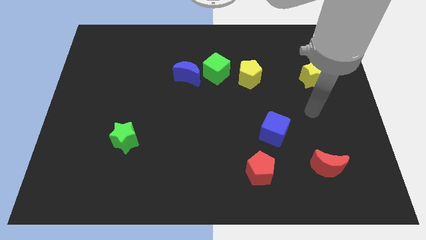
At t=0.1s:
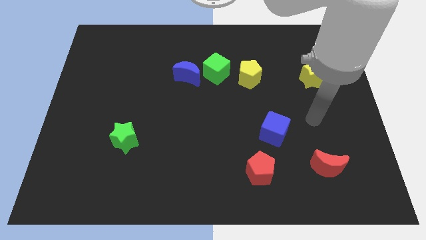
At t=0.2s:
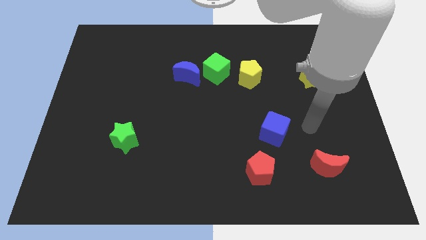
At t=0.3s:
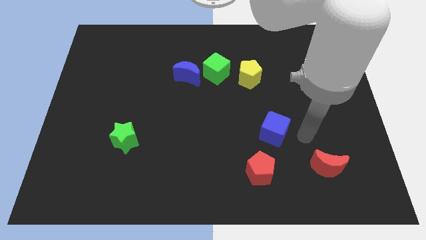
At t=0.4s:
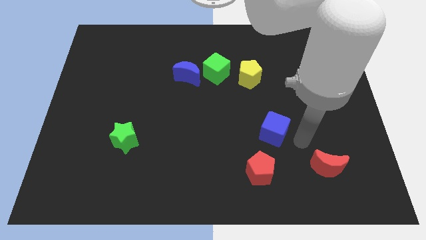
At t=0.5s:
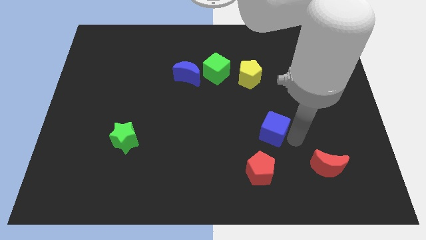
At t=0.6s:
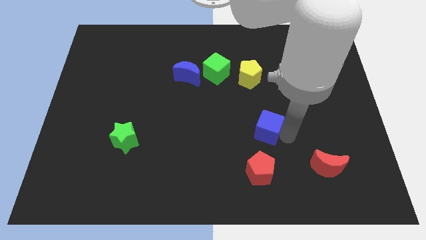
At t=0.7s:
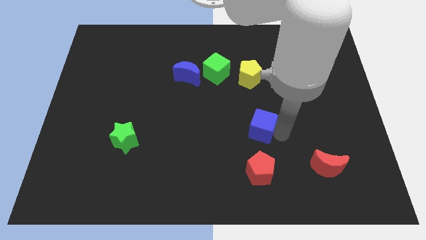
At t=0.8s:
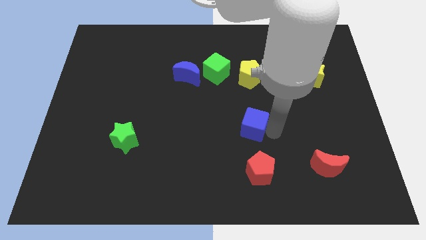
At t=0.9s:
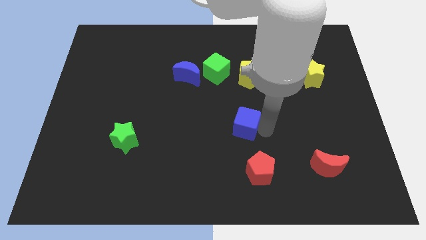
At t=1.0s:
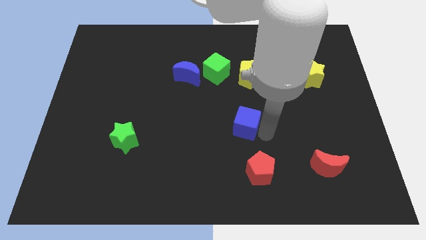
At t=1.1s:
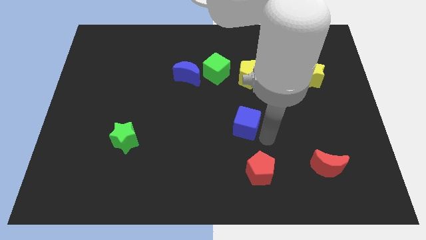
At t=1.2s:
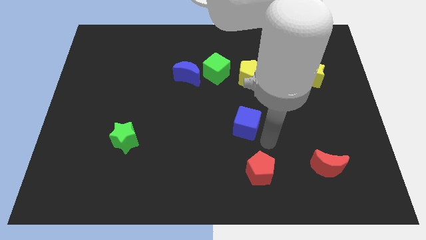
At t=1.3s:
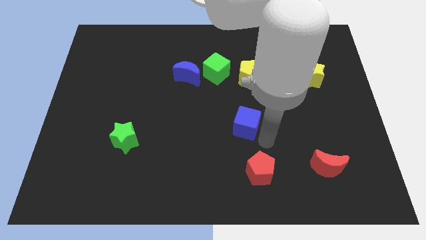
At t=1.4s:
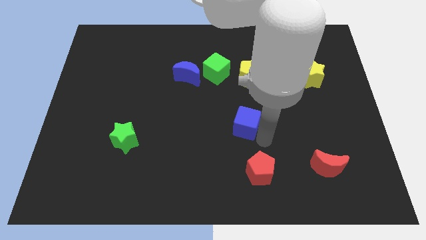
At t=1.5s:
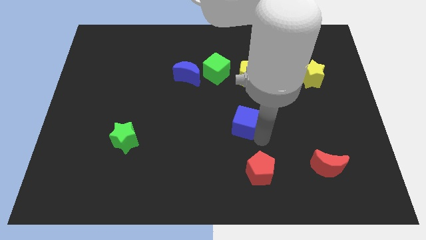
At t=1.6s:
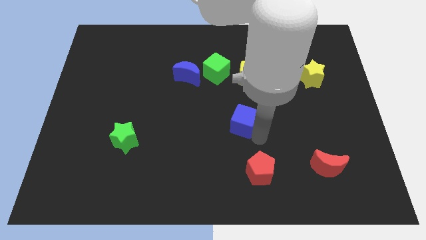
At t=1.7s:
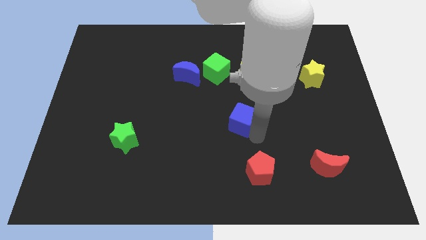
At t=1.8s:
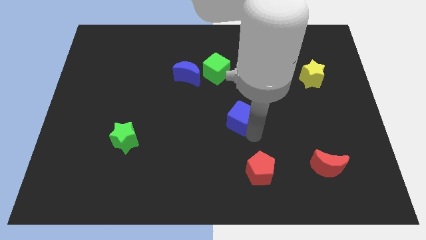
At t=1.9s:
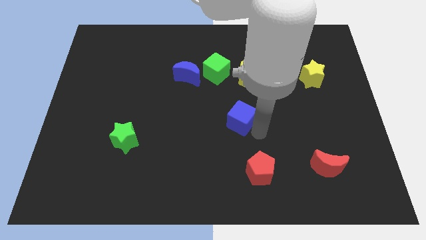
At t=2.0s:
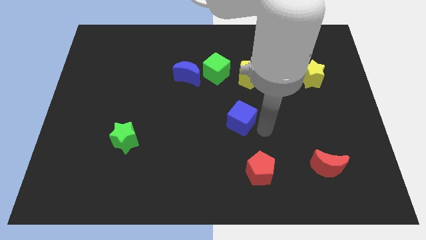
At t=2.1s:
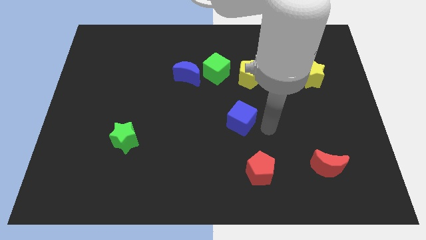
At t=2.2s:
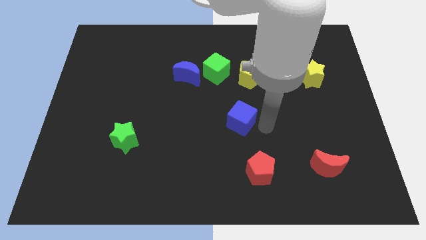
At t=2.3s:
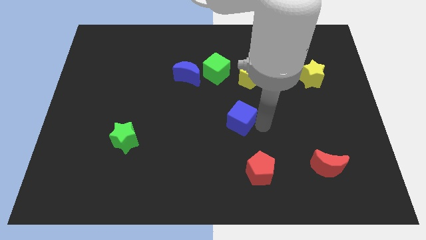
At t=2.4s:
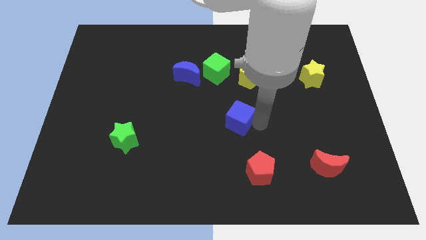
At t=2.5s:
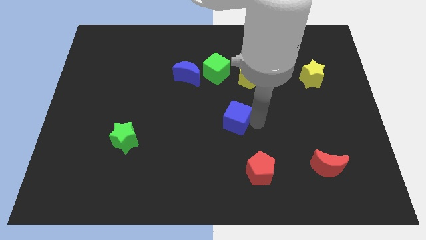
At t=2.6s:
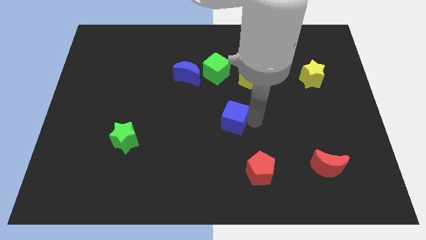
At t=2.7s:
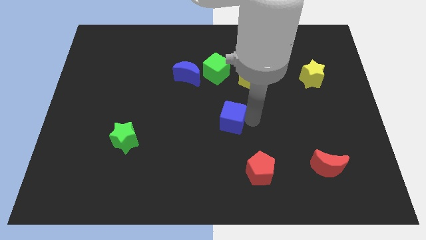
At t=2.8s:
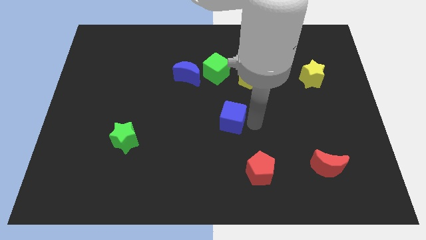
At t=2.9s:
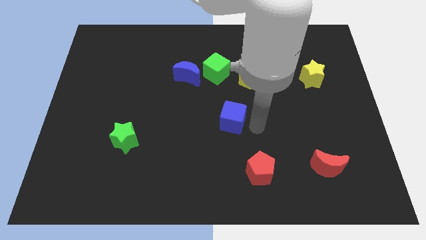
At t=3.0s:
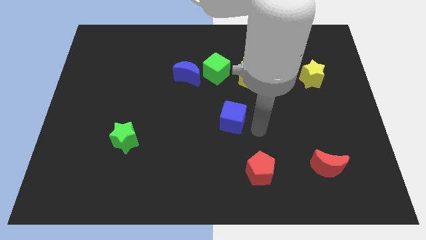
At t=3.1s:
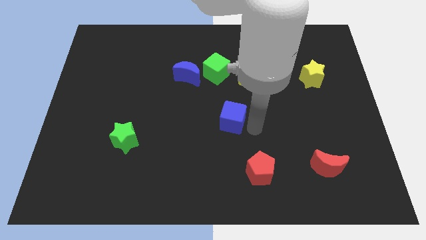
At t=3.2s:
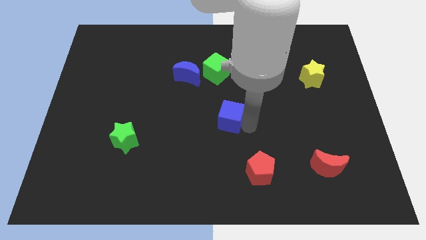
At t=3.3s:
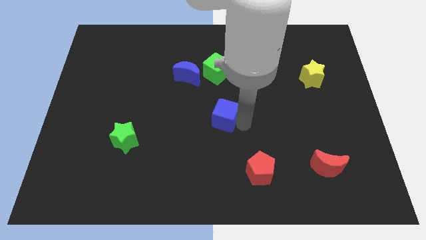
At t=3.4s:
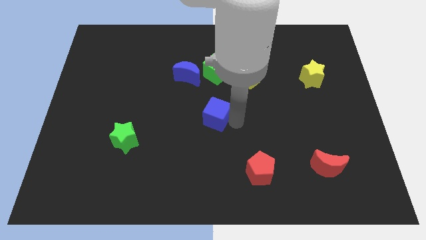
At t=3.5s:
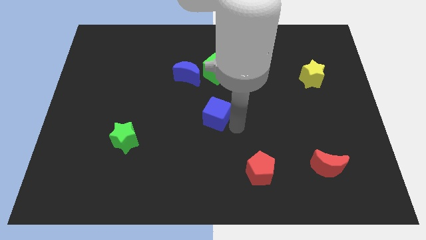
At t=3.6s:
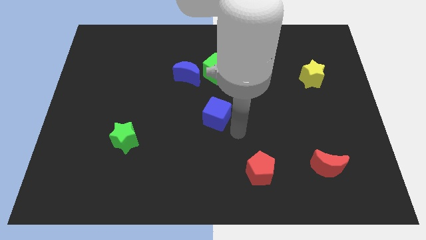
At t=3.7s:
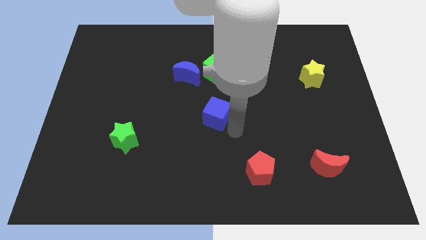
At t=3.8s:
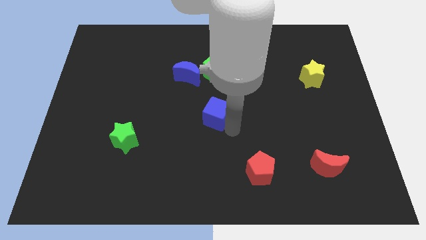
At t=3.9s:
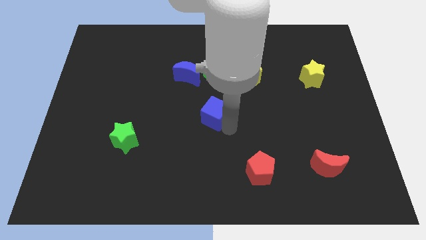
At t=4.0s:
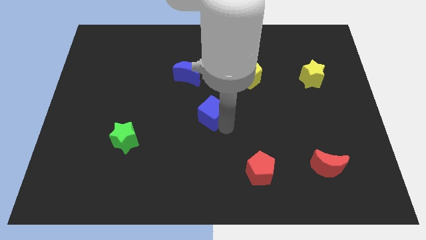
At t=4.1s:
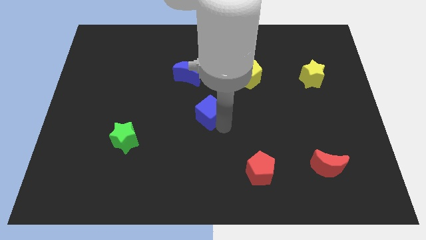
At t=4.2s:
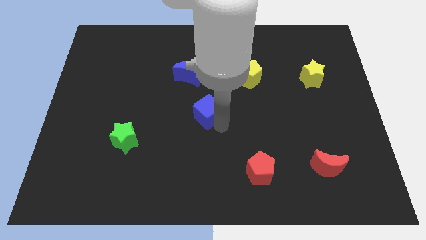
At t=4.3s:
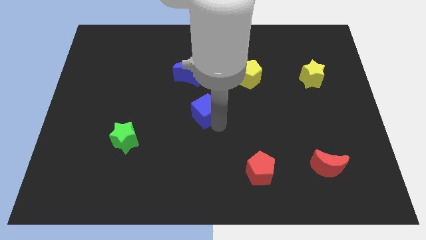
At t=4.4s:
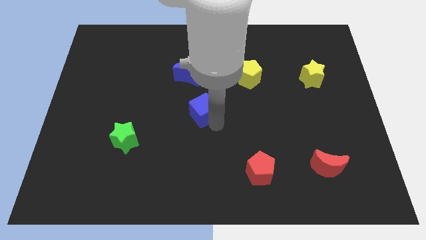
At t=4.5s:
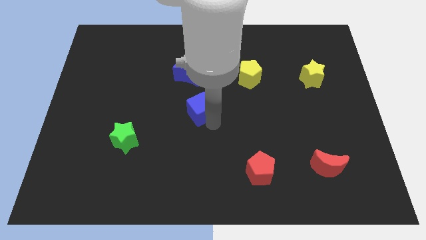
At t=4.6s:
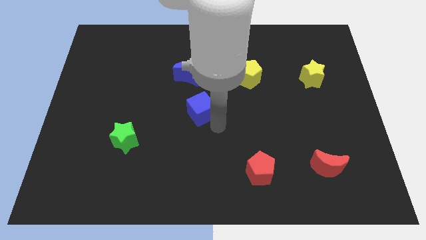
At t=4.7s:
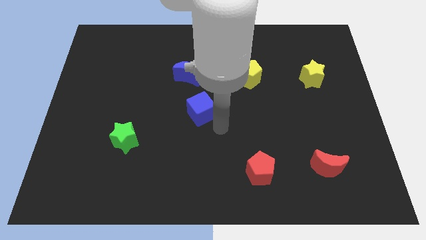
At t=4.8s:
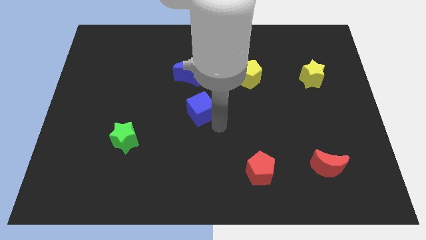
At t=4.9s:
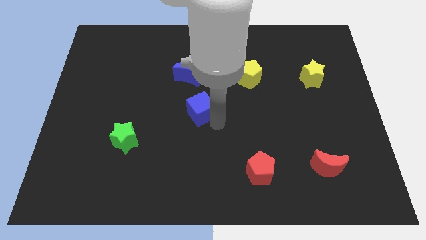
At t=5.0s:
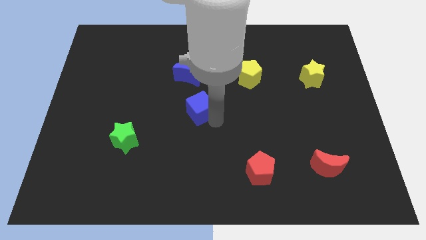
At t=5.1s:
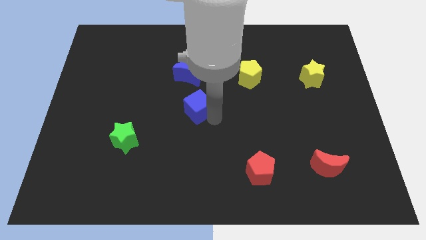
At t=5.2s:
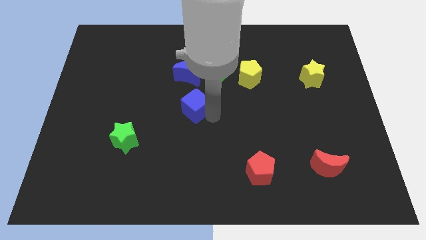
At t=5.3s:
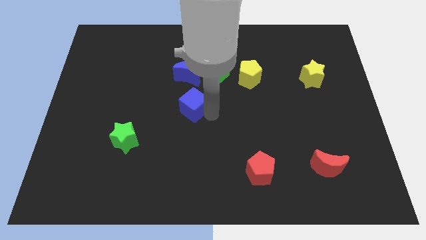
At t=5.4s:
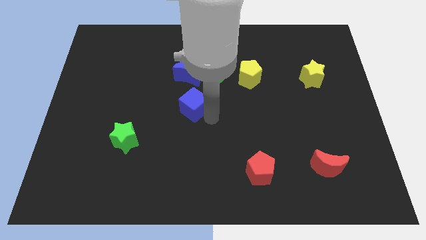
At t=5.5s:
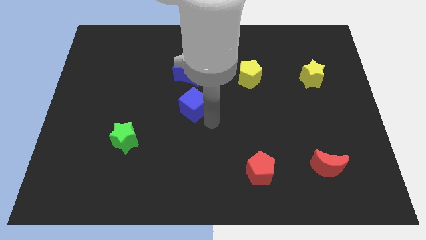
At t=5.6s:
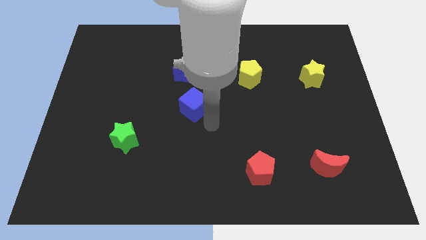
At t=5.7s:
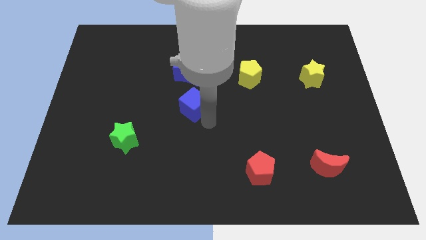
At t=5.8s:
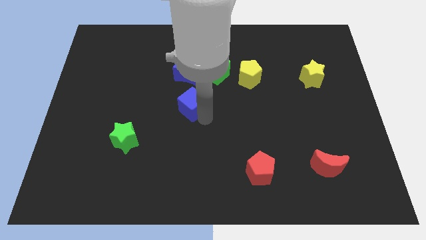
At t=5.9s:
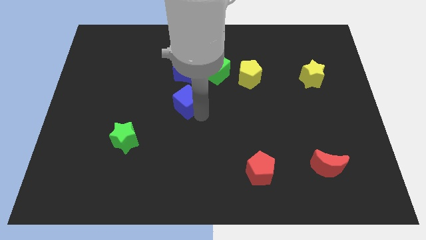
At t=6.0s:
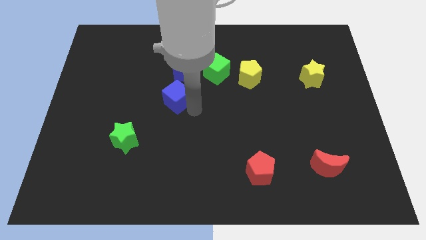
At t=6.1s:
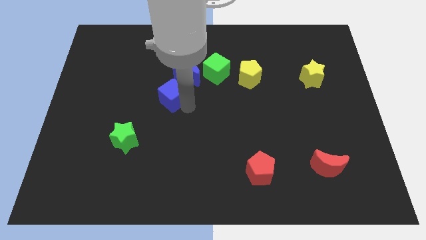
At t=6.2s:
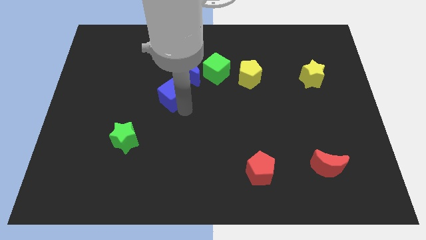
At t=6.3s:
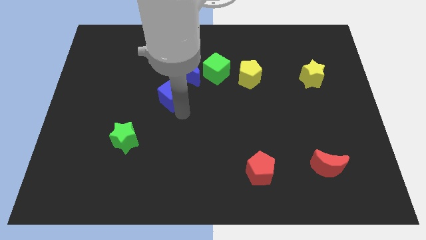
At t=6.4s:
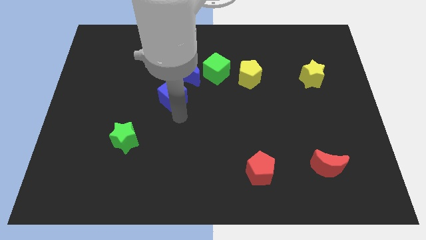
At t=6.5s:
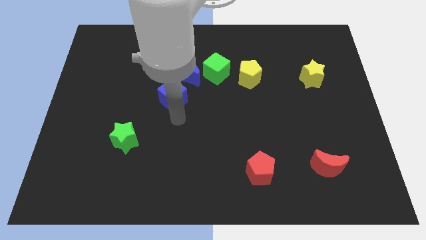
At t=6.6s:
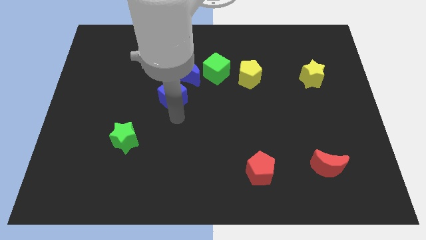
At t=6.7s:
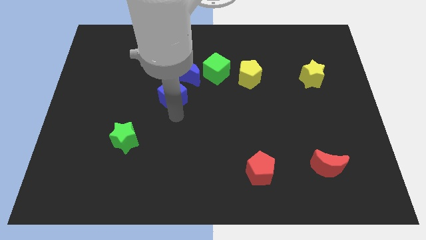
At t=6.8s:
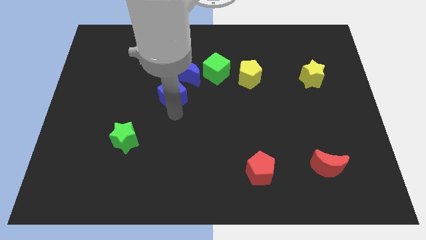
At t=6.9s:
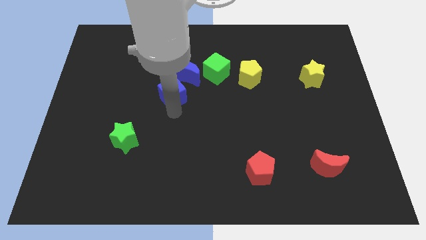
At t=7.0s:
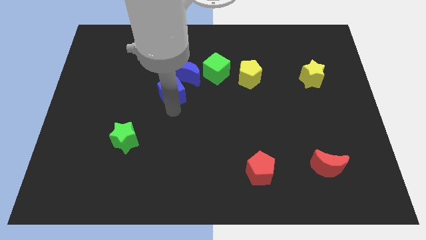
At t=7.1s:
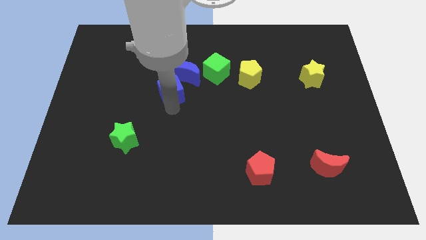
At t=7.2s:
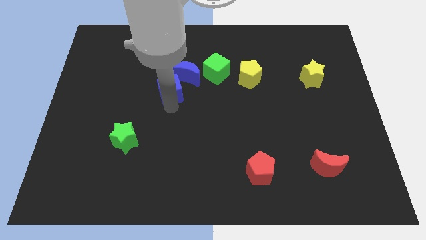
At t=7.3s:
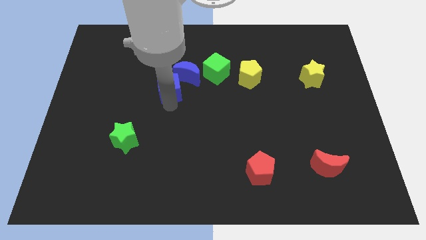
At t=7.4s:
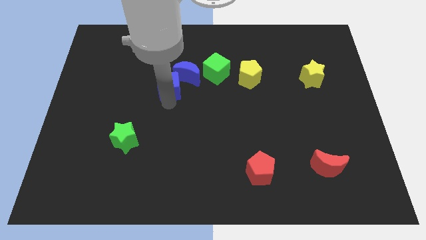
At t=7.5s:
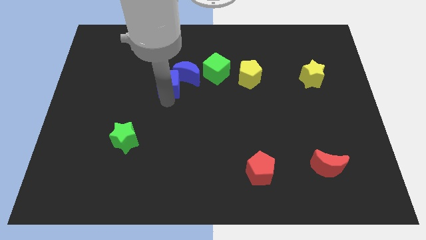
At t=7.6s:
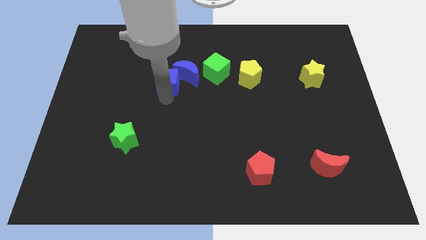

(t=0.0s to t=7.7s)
move the blue cube to the left of the green cube
